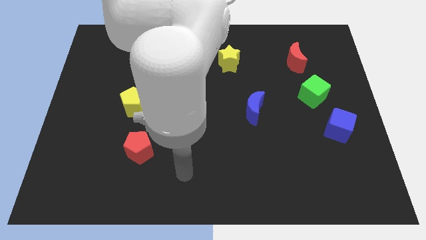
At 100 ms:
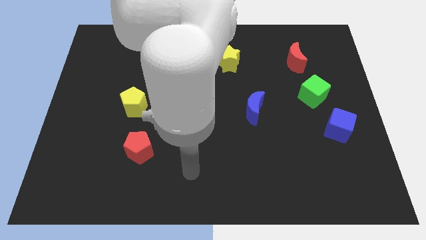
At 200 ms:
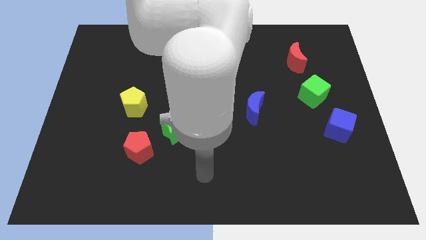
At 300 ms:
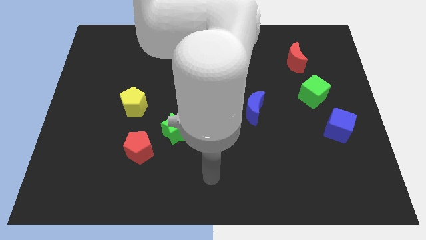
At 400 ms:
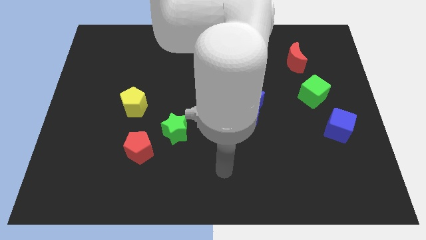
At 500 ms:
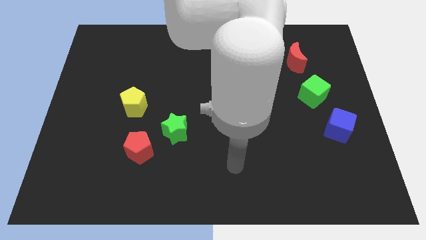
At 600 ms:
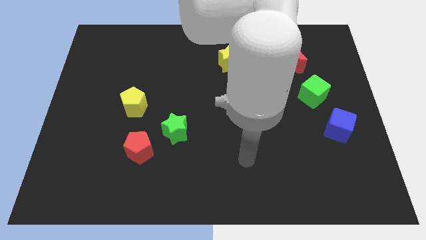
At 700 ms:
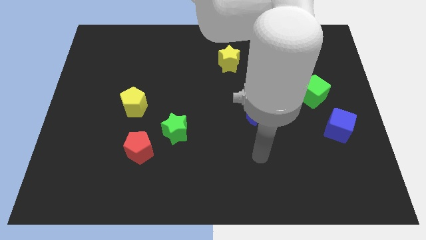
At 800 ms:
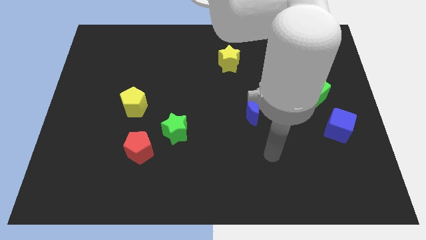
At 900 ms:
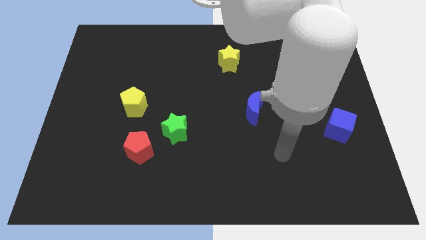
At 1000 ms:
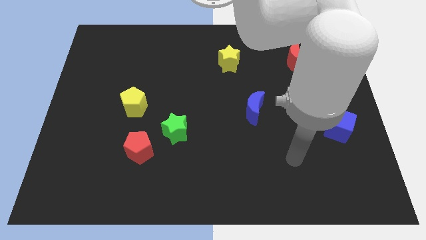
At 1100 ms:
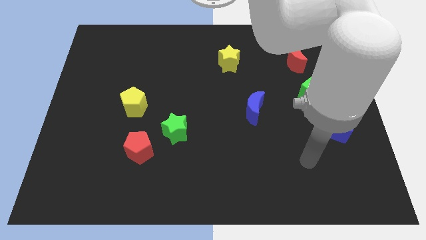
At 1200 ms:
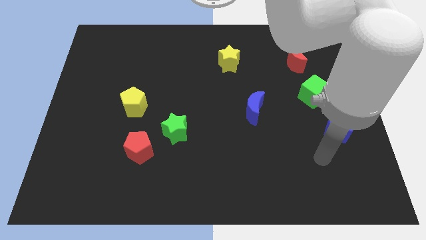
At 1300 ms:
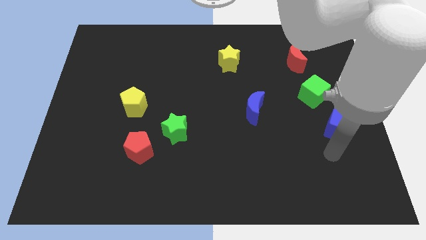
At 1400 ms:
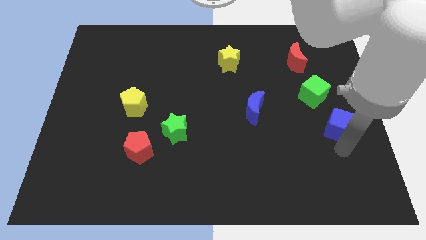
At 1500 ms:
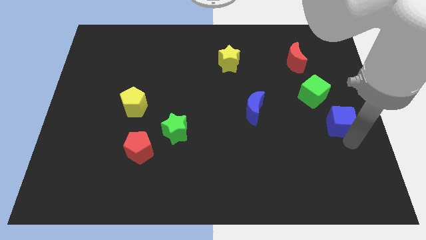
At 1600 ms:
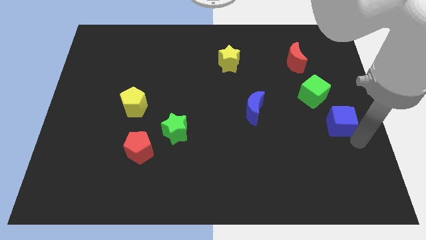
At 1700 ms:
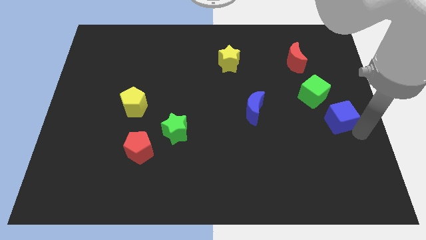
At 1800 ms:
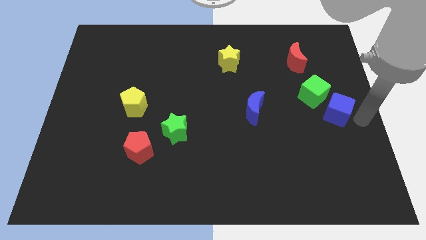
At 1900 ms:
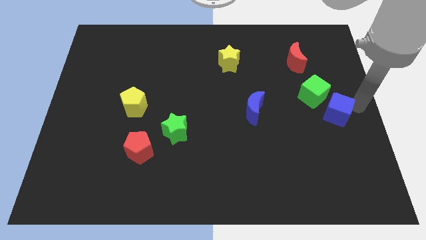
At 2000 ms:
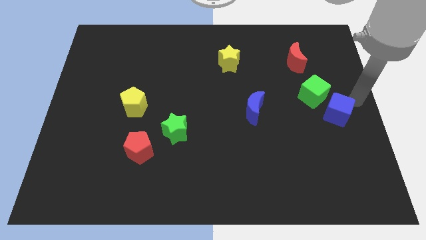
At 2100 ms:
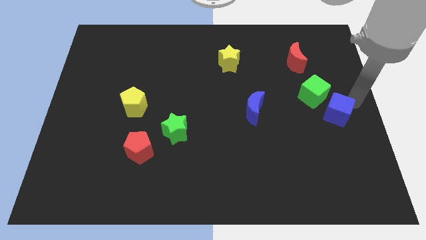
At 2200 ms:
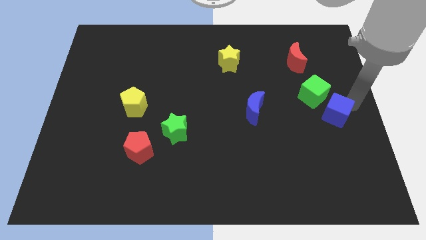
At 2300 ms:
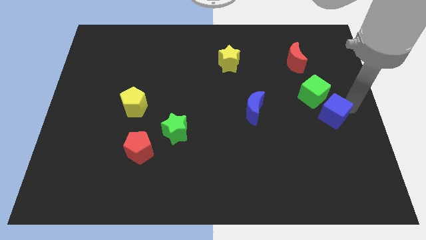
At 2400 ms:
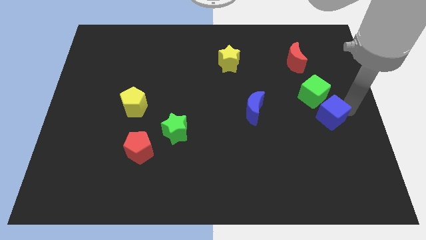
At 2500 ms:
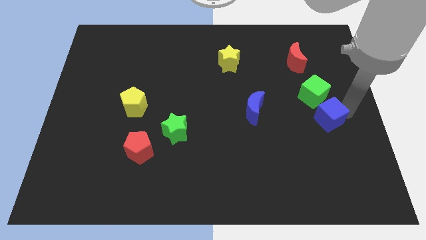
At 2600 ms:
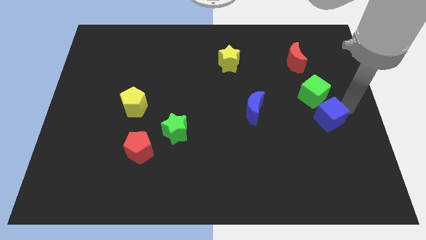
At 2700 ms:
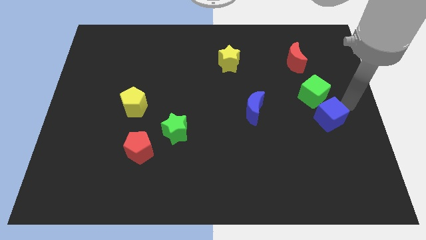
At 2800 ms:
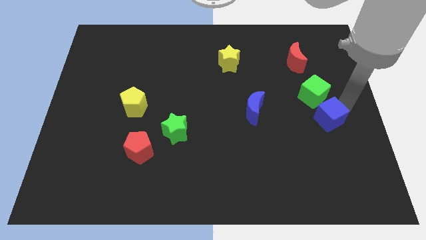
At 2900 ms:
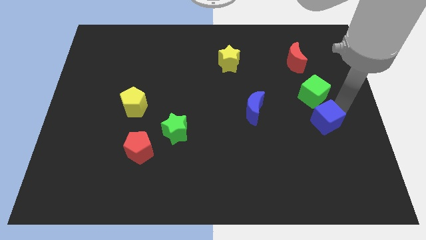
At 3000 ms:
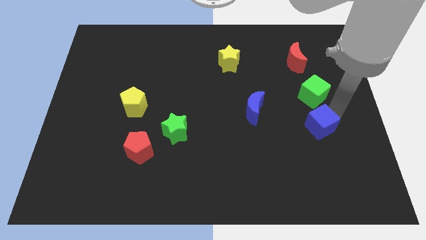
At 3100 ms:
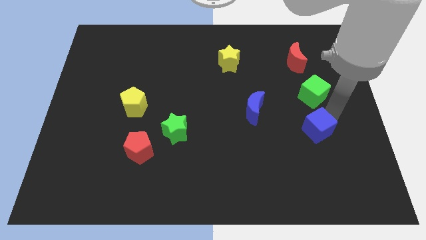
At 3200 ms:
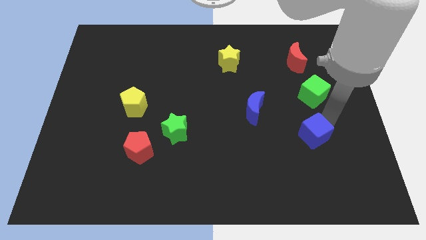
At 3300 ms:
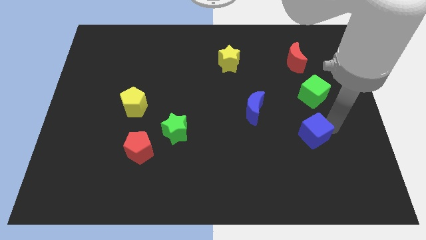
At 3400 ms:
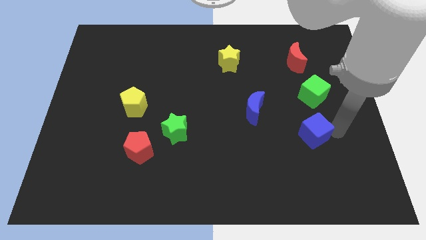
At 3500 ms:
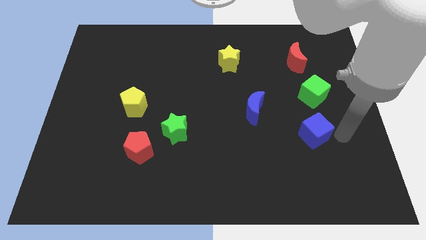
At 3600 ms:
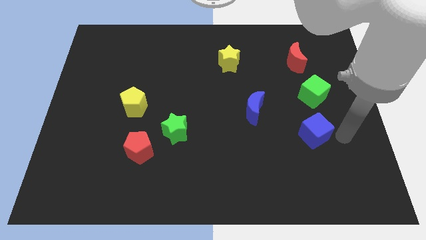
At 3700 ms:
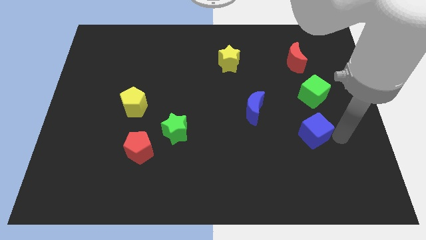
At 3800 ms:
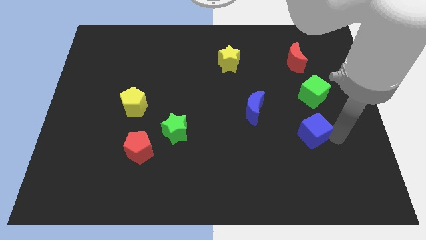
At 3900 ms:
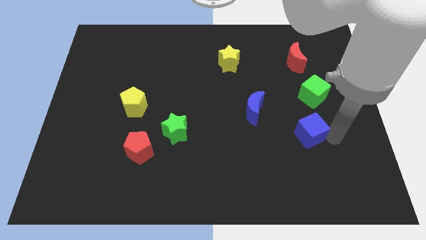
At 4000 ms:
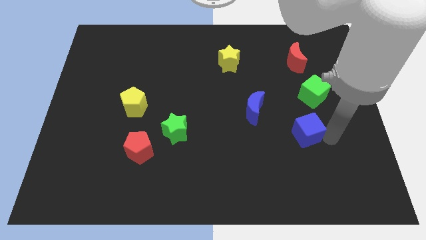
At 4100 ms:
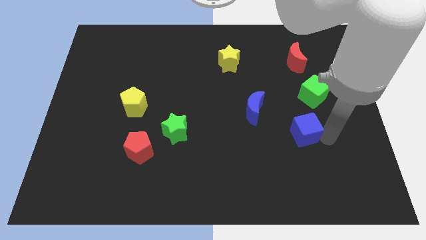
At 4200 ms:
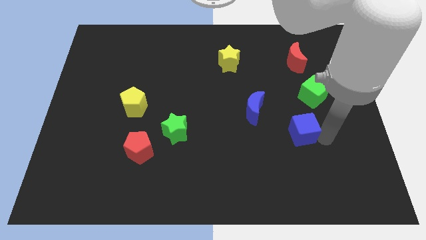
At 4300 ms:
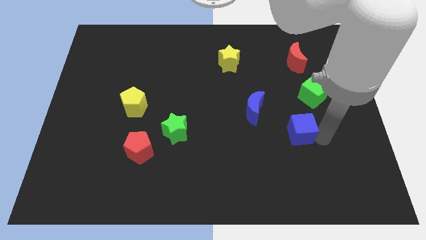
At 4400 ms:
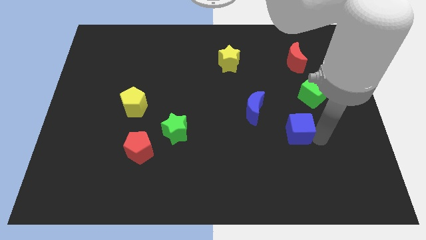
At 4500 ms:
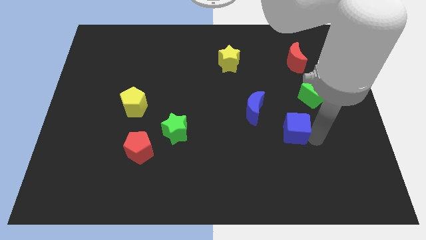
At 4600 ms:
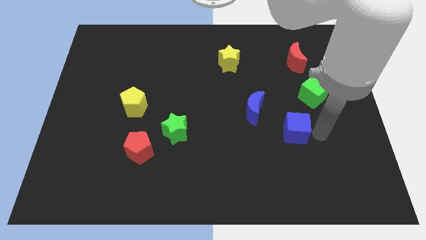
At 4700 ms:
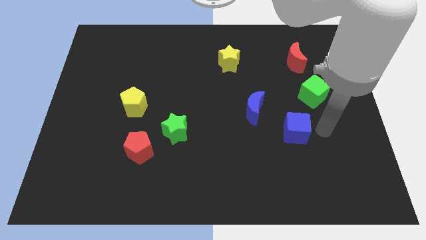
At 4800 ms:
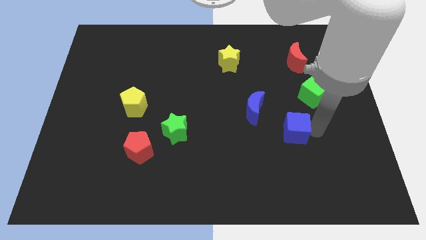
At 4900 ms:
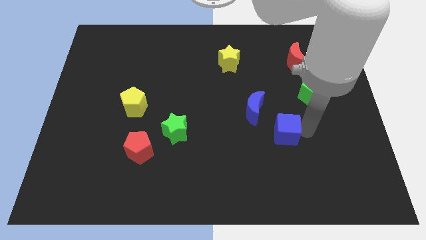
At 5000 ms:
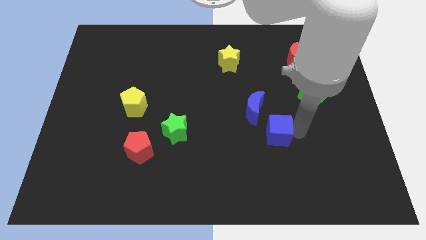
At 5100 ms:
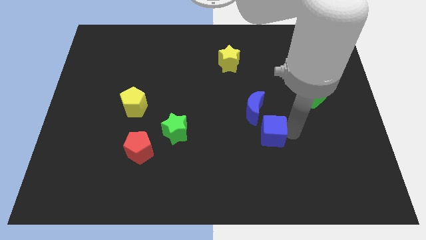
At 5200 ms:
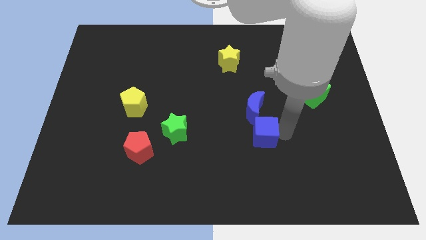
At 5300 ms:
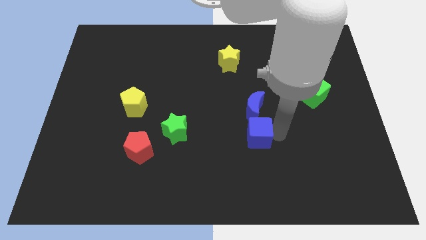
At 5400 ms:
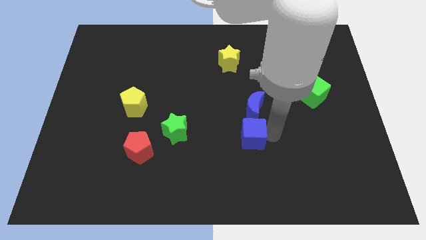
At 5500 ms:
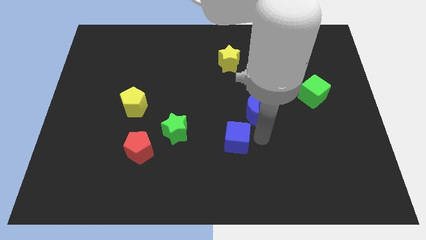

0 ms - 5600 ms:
push the blue cube to the left

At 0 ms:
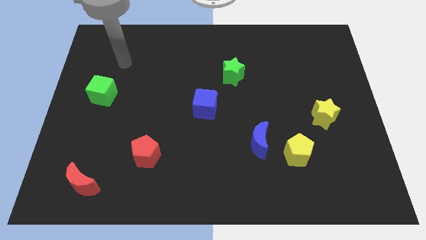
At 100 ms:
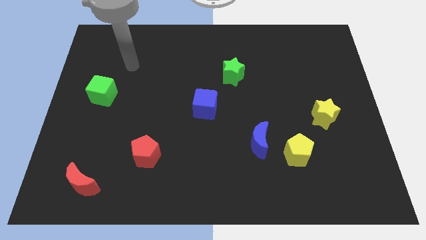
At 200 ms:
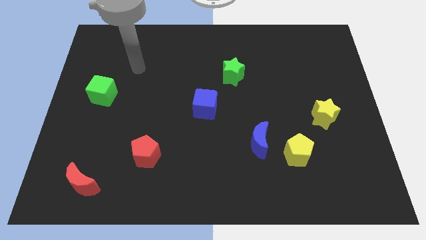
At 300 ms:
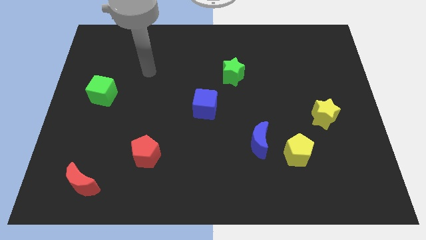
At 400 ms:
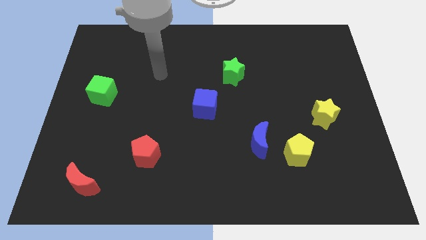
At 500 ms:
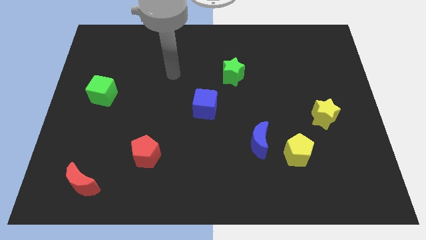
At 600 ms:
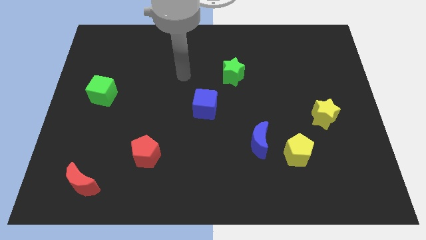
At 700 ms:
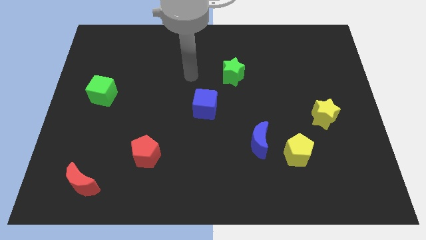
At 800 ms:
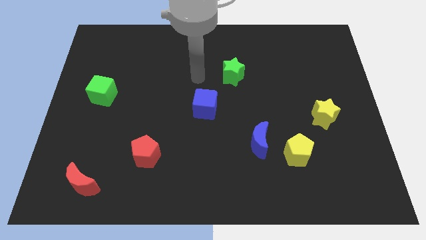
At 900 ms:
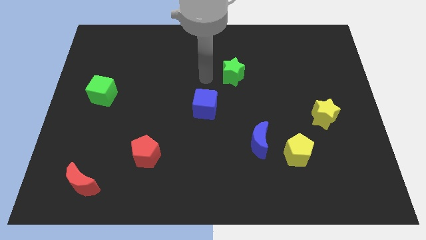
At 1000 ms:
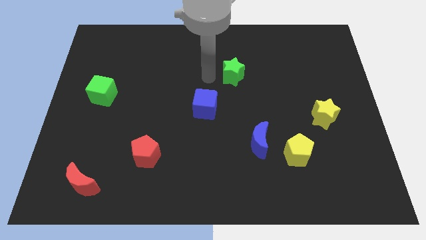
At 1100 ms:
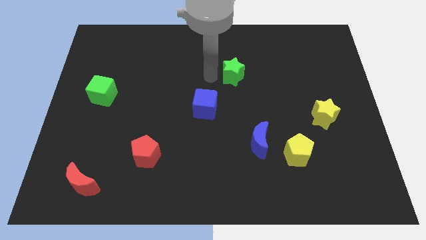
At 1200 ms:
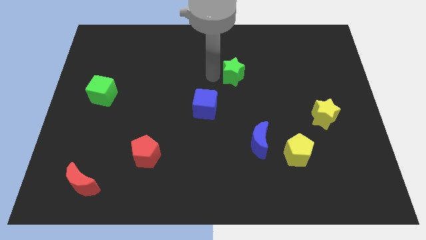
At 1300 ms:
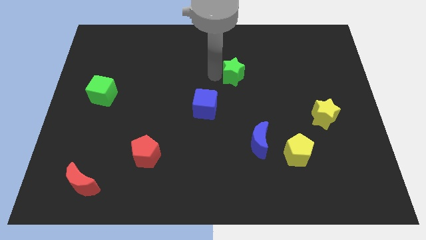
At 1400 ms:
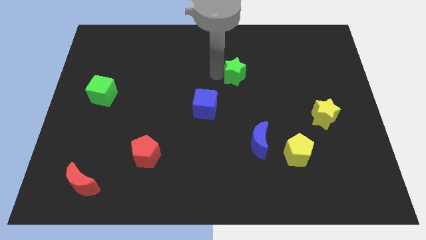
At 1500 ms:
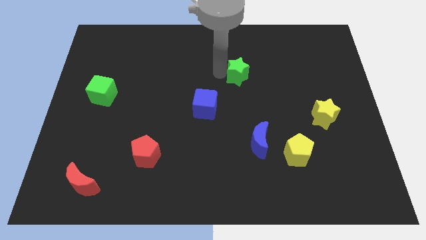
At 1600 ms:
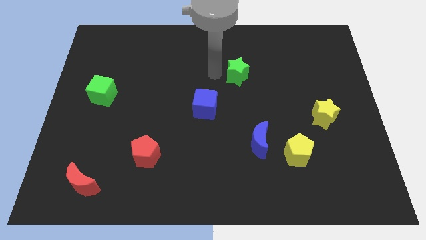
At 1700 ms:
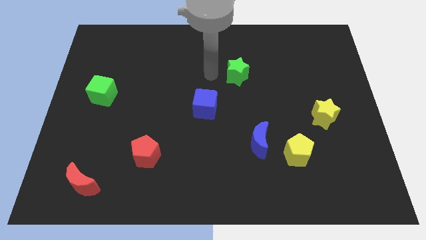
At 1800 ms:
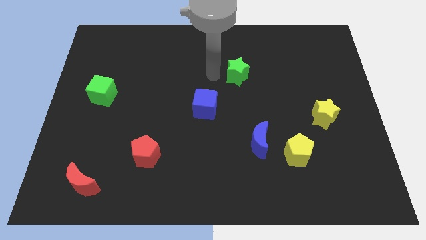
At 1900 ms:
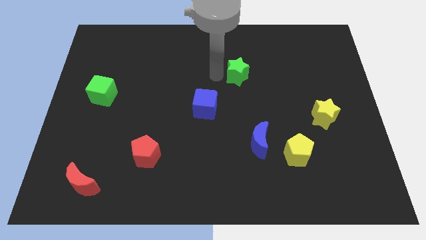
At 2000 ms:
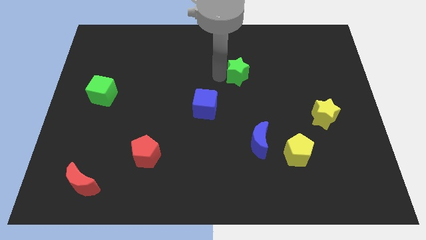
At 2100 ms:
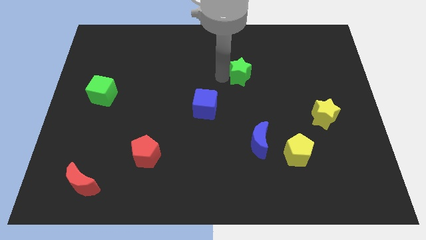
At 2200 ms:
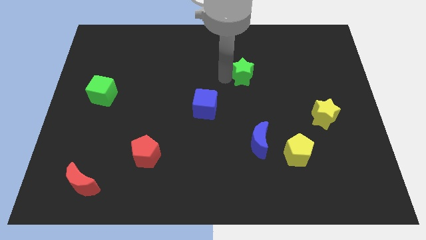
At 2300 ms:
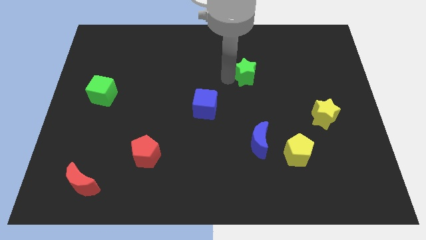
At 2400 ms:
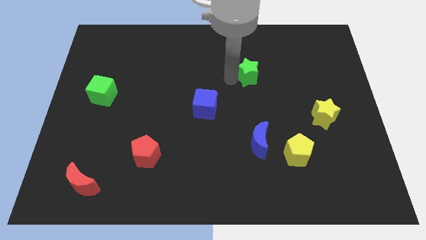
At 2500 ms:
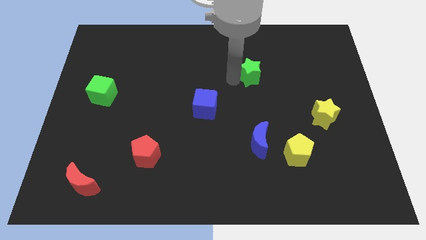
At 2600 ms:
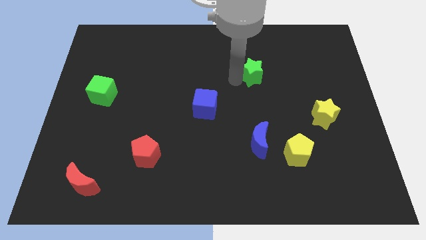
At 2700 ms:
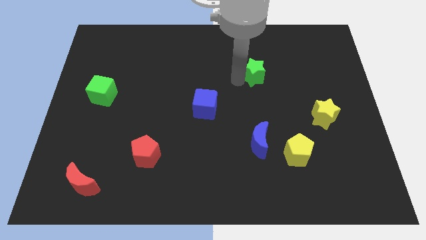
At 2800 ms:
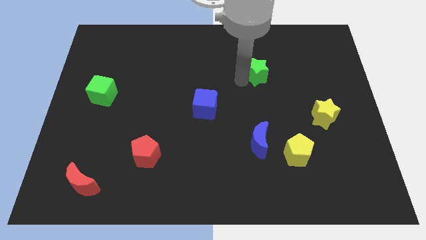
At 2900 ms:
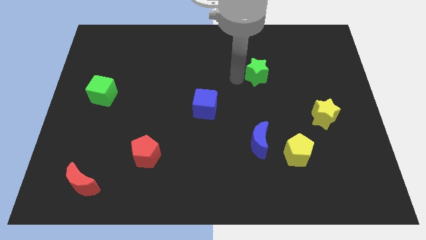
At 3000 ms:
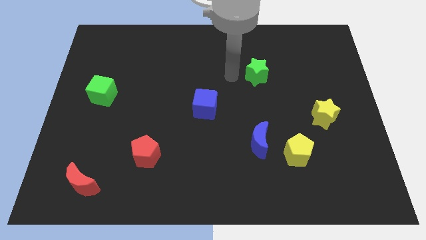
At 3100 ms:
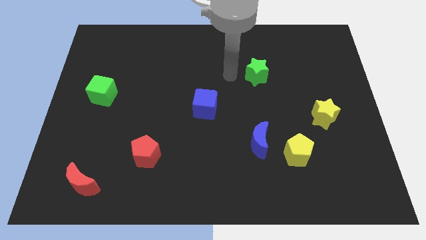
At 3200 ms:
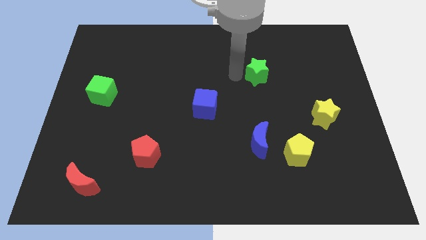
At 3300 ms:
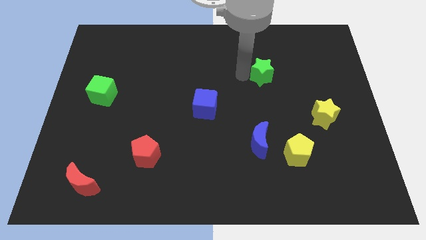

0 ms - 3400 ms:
move the green star right slightly
